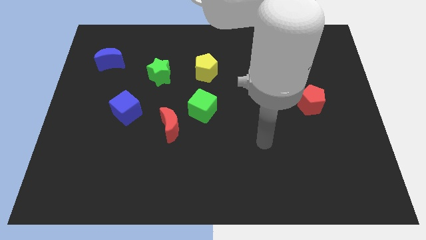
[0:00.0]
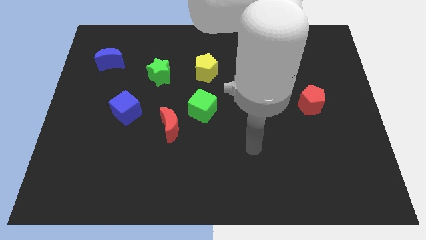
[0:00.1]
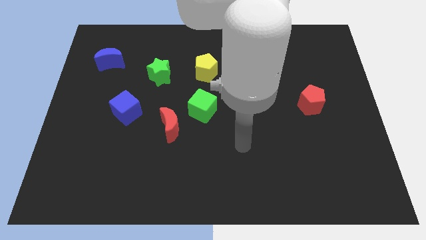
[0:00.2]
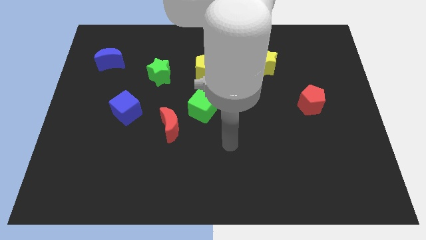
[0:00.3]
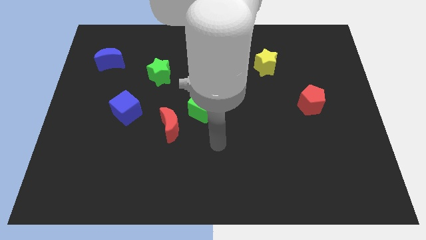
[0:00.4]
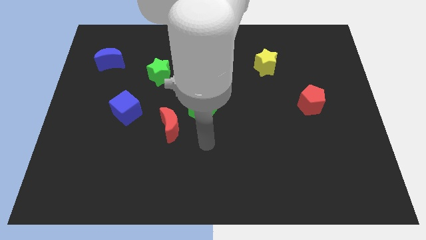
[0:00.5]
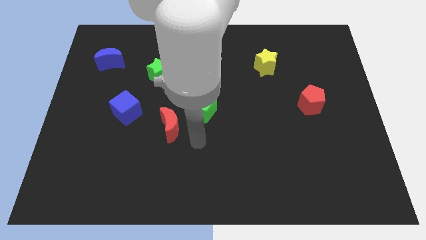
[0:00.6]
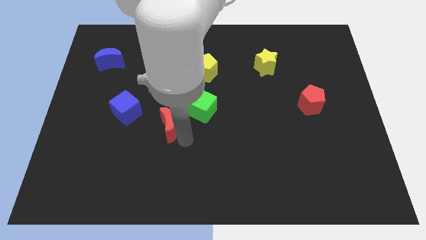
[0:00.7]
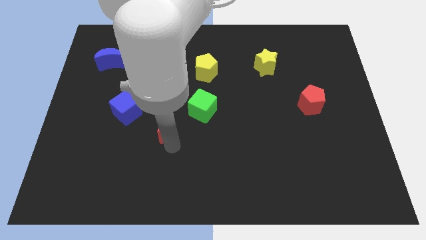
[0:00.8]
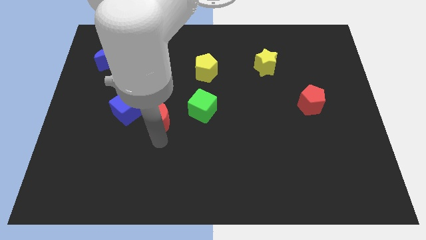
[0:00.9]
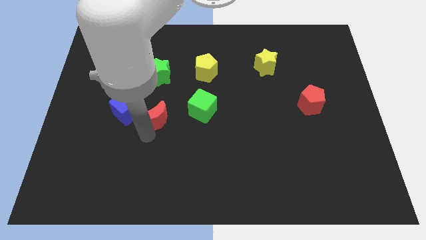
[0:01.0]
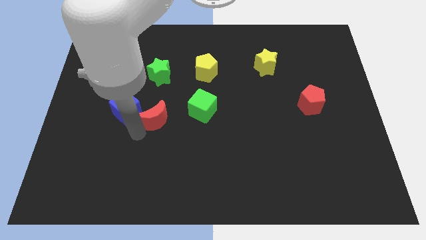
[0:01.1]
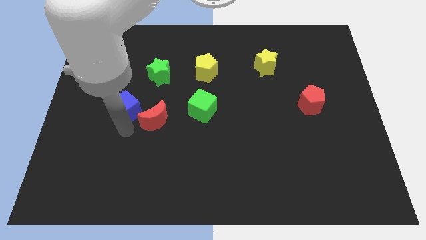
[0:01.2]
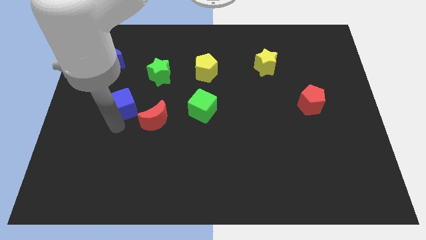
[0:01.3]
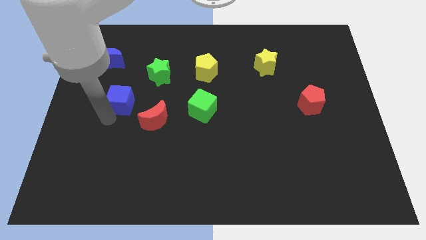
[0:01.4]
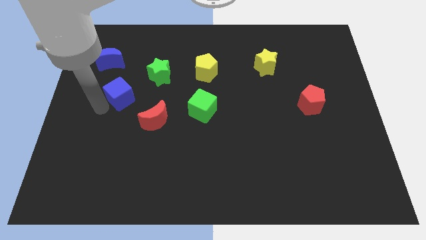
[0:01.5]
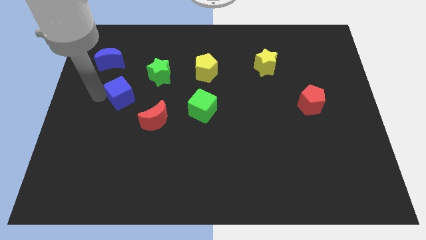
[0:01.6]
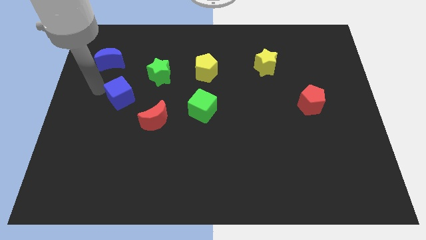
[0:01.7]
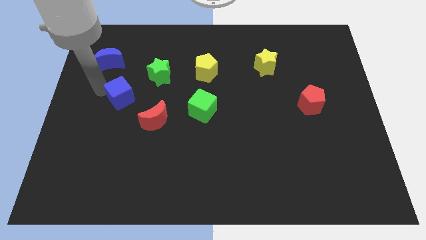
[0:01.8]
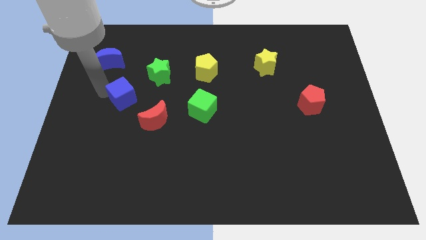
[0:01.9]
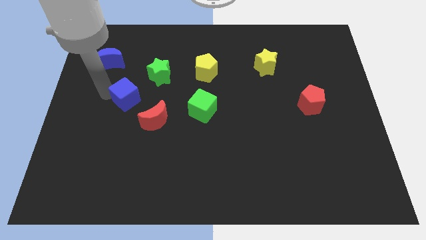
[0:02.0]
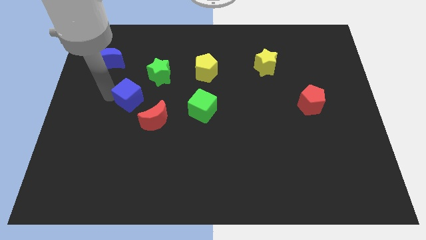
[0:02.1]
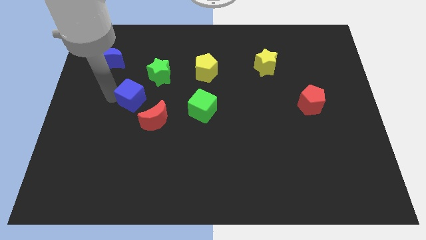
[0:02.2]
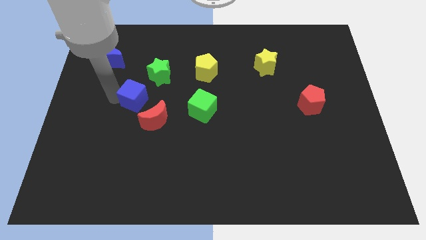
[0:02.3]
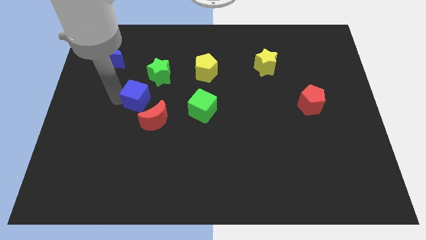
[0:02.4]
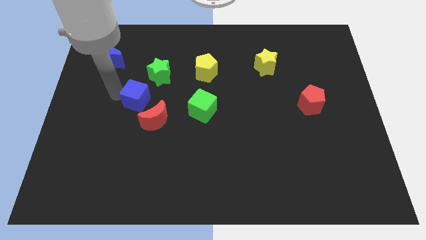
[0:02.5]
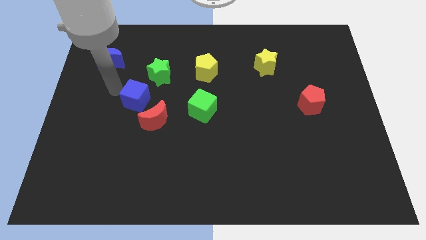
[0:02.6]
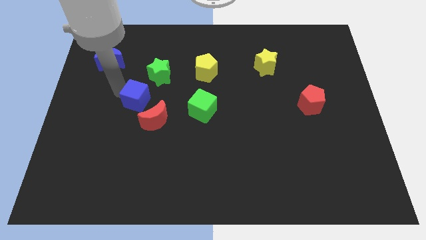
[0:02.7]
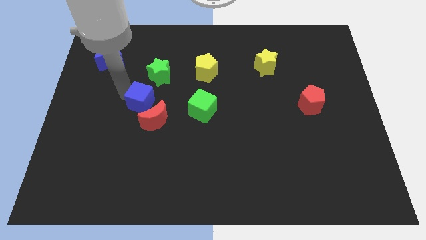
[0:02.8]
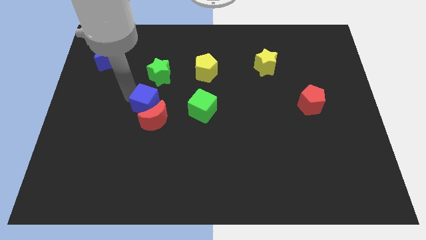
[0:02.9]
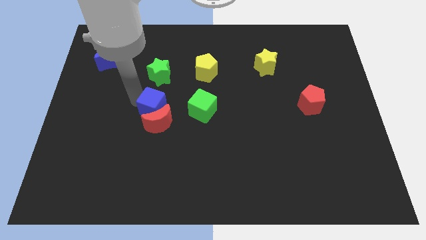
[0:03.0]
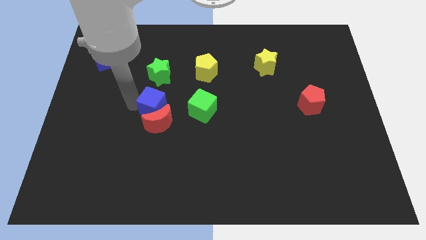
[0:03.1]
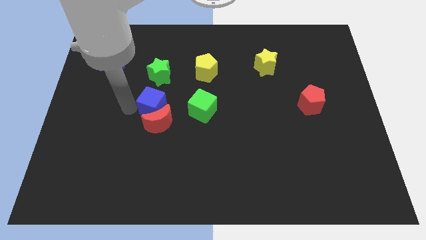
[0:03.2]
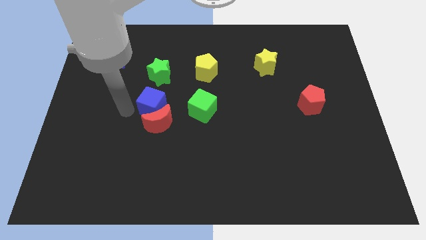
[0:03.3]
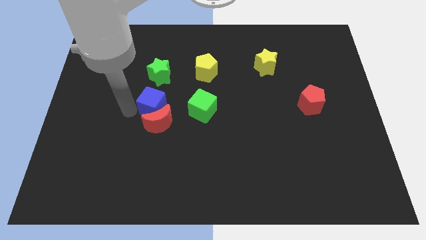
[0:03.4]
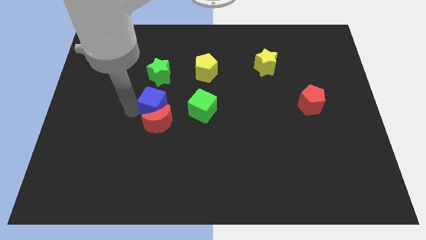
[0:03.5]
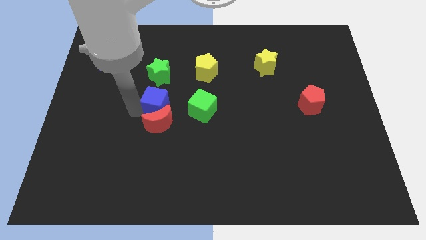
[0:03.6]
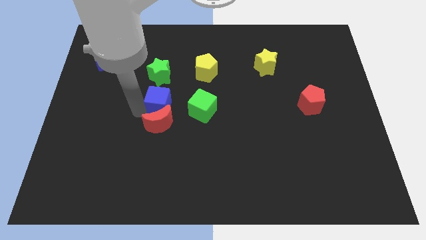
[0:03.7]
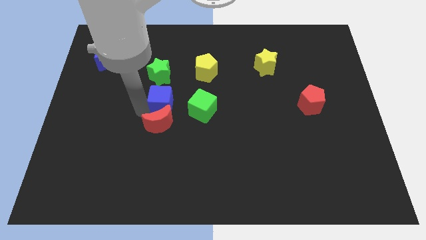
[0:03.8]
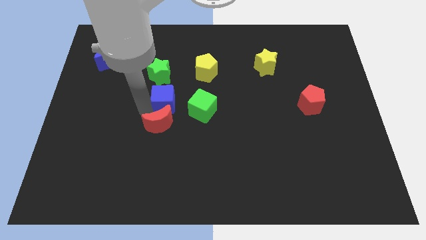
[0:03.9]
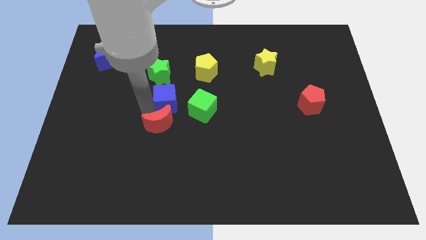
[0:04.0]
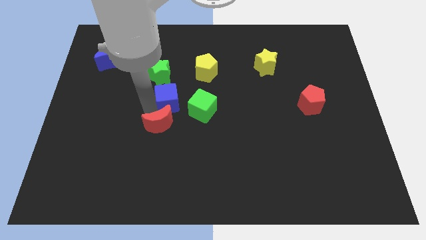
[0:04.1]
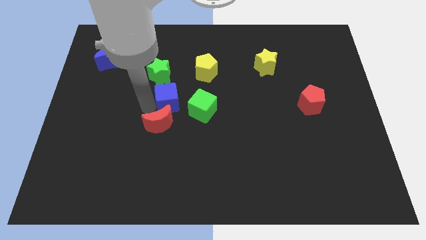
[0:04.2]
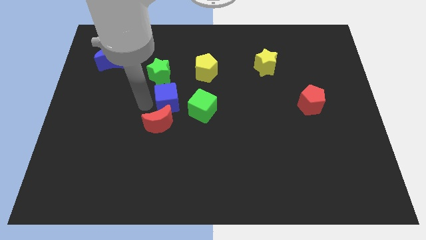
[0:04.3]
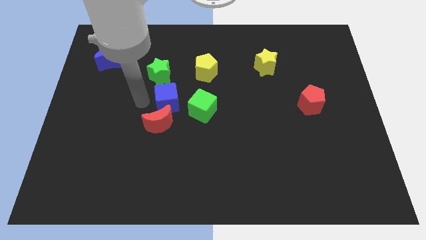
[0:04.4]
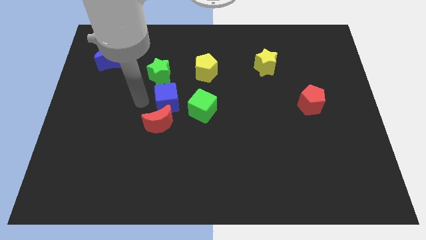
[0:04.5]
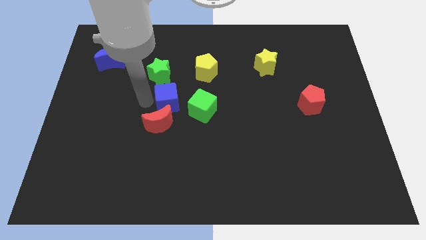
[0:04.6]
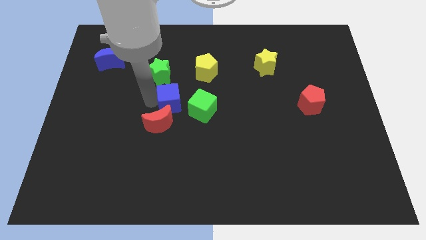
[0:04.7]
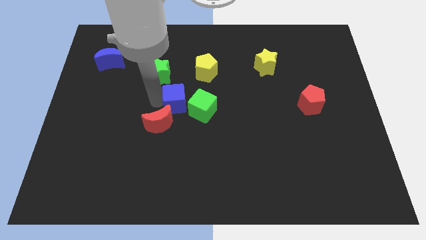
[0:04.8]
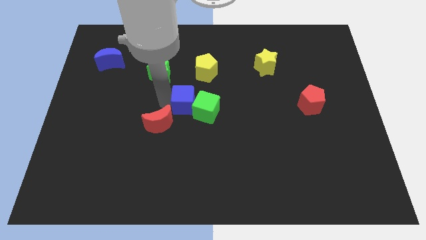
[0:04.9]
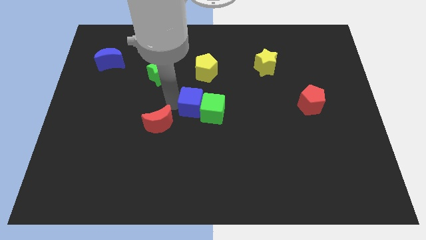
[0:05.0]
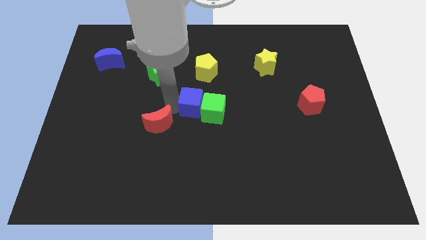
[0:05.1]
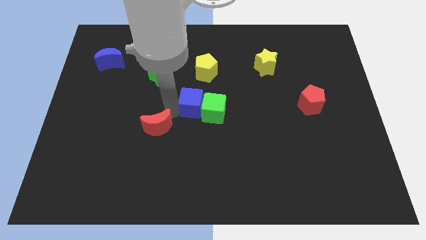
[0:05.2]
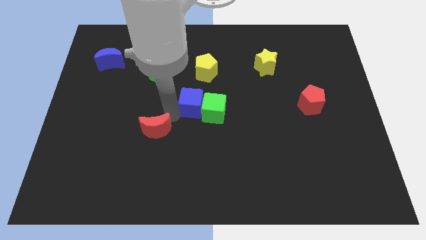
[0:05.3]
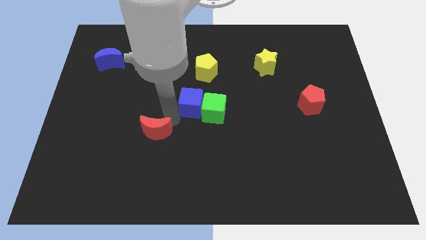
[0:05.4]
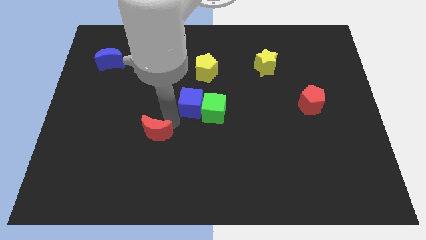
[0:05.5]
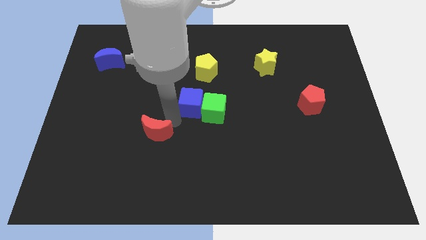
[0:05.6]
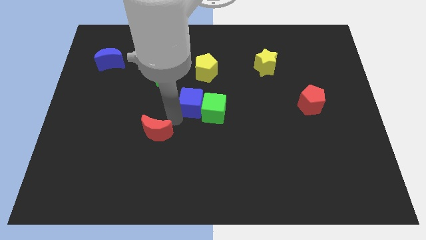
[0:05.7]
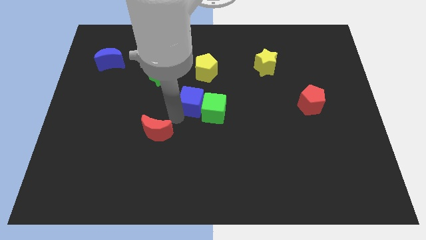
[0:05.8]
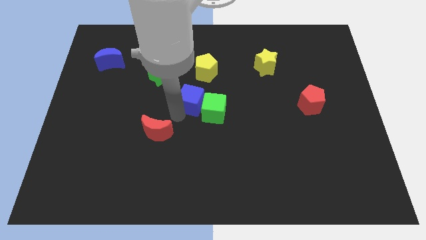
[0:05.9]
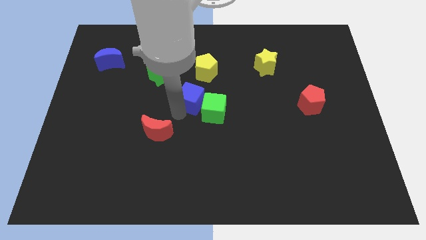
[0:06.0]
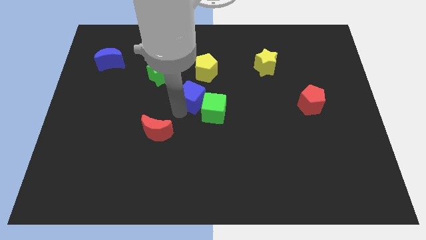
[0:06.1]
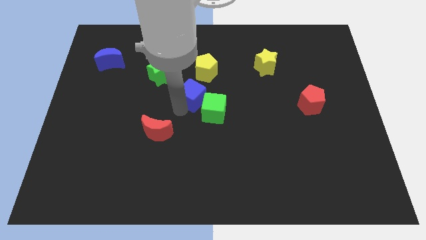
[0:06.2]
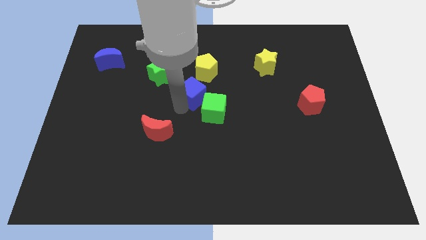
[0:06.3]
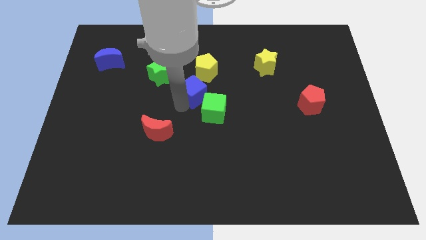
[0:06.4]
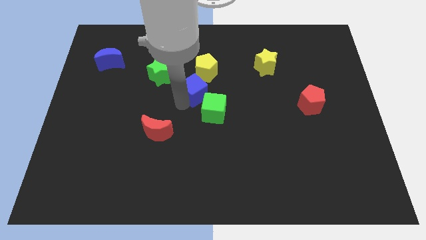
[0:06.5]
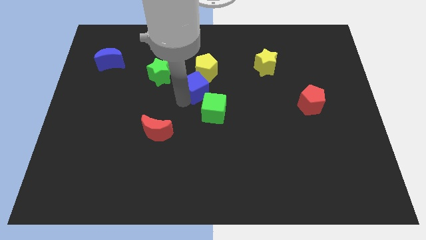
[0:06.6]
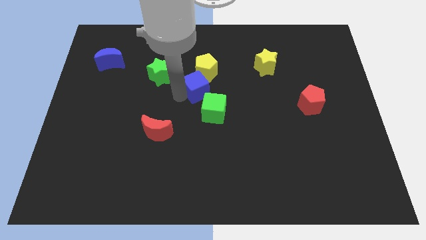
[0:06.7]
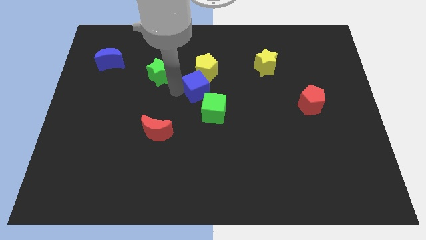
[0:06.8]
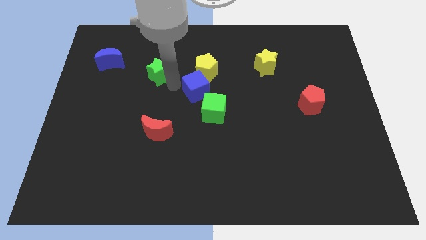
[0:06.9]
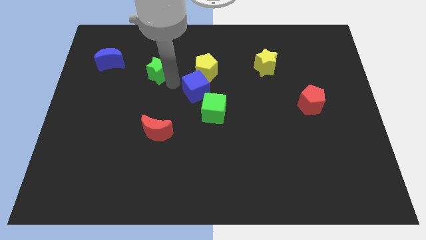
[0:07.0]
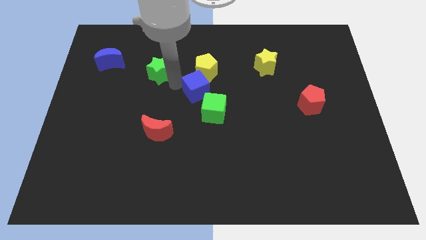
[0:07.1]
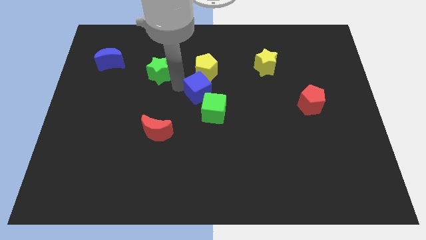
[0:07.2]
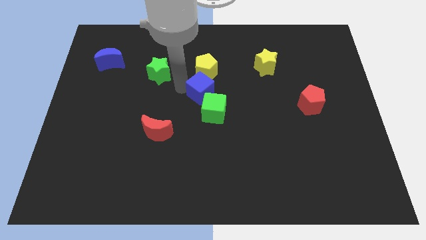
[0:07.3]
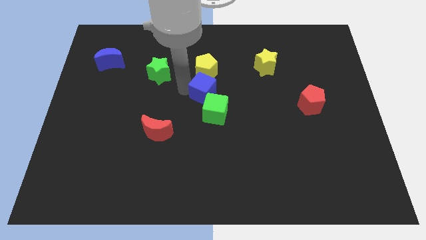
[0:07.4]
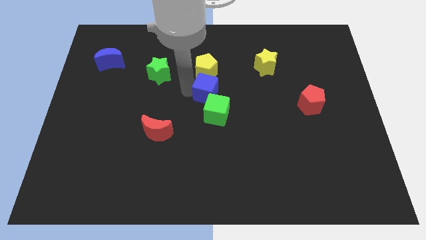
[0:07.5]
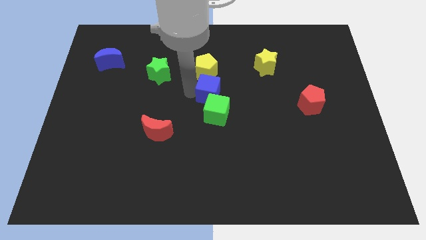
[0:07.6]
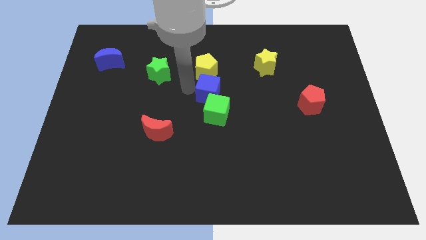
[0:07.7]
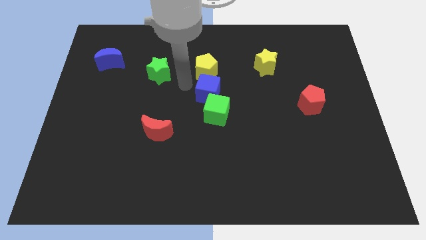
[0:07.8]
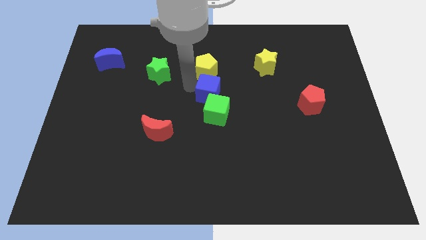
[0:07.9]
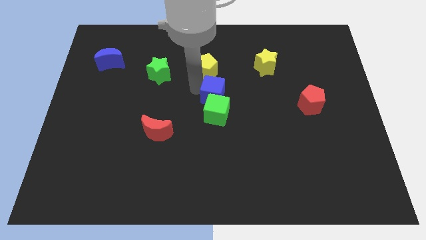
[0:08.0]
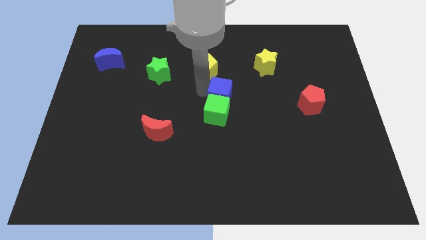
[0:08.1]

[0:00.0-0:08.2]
slide the blue cube right
